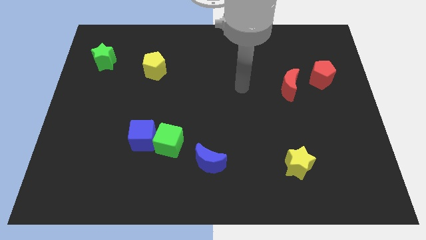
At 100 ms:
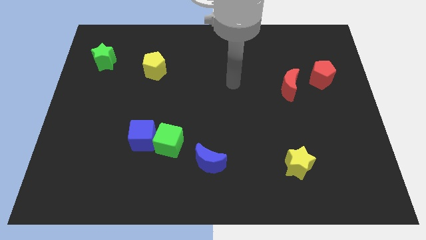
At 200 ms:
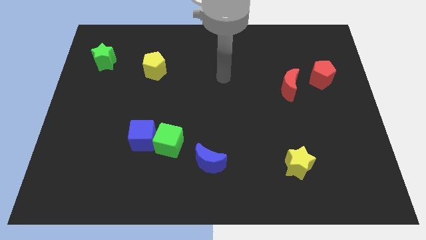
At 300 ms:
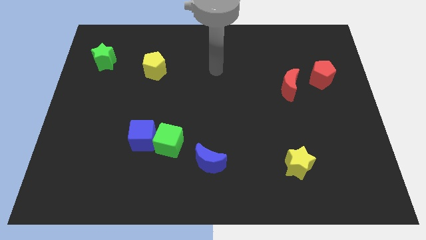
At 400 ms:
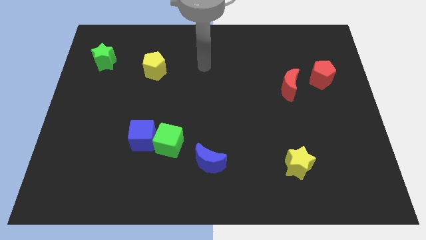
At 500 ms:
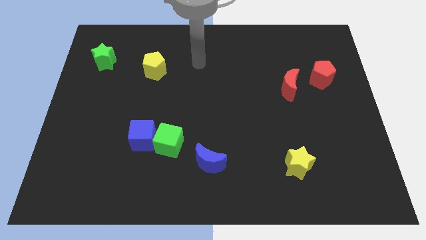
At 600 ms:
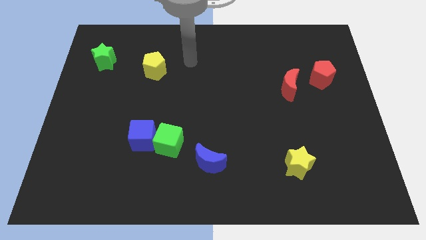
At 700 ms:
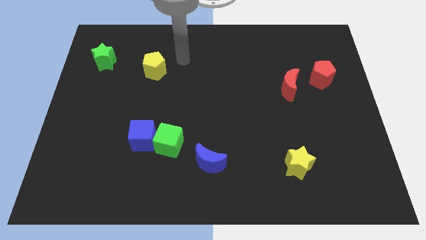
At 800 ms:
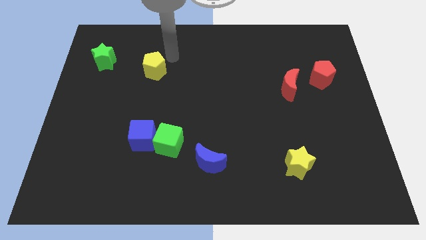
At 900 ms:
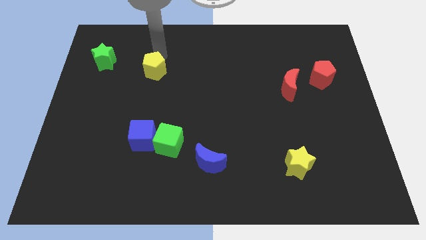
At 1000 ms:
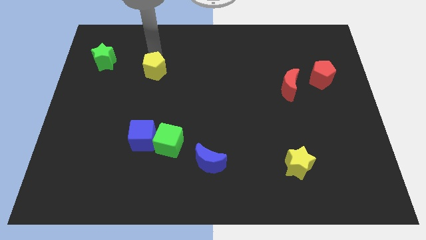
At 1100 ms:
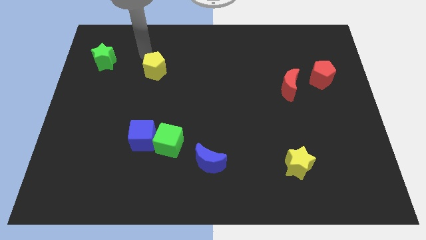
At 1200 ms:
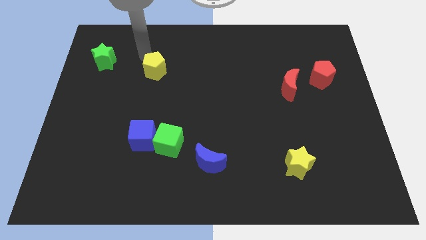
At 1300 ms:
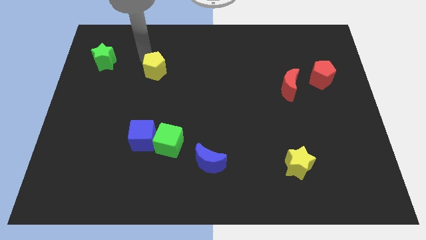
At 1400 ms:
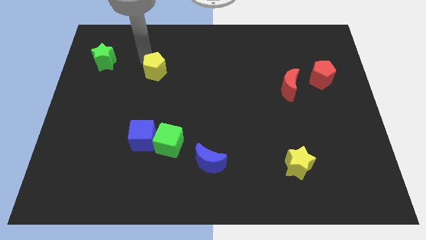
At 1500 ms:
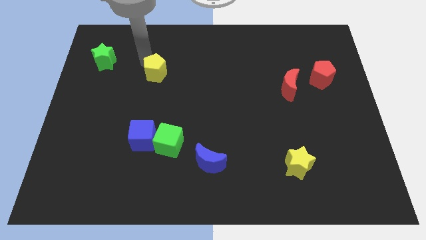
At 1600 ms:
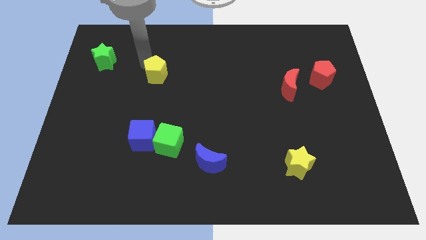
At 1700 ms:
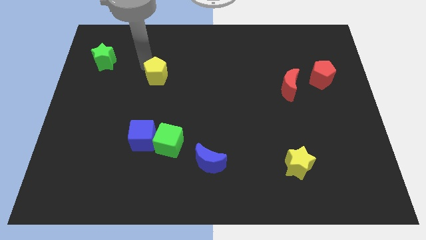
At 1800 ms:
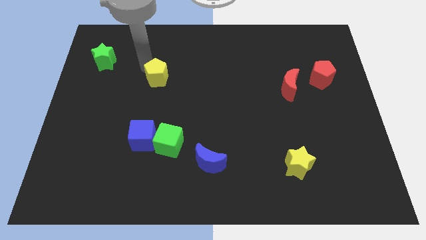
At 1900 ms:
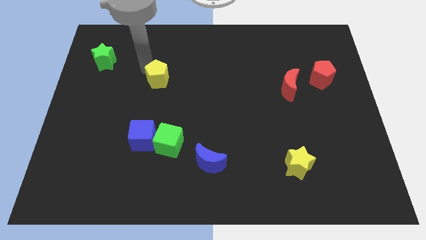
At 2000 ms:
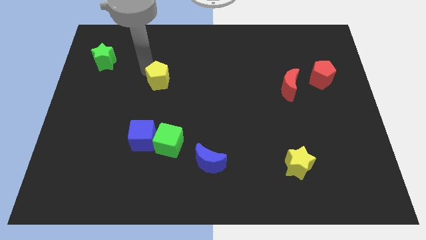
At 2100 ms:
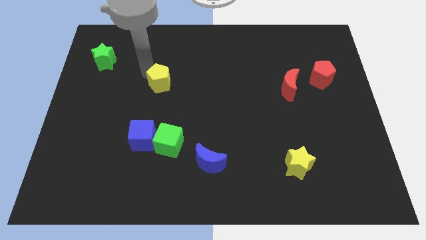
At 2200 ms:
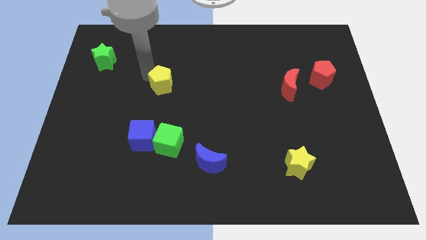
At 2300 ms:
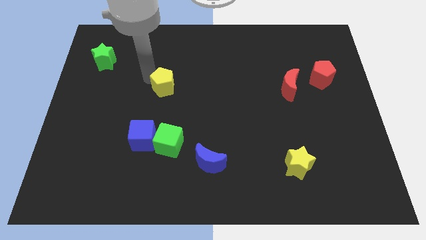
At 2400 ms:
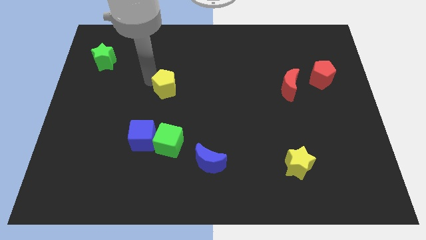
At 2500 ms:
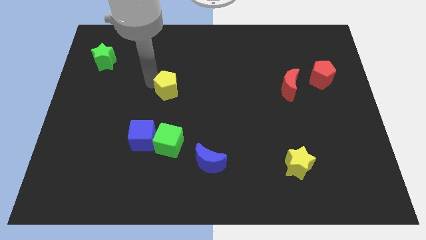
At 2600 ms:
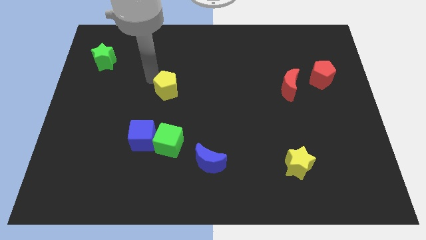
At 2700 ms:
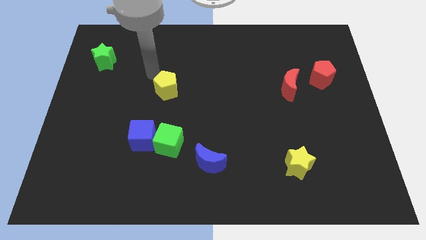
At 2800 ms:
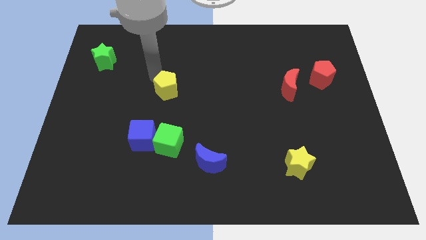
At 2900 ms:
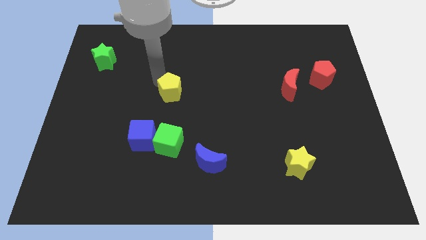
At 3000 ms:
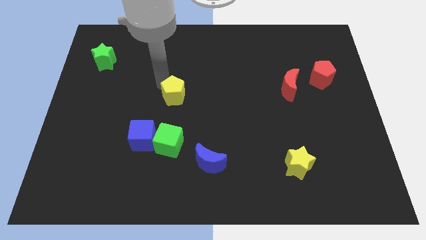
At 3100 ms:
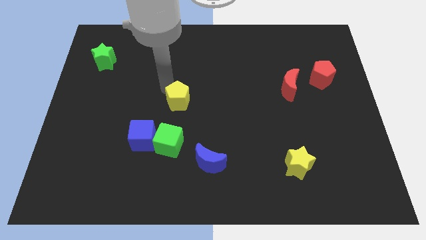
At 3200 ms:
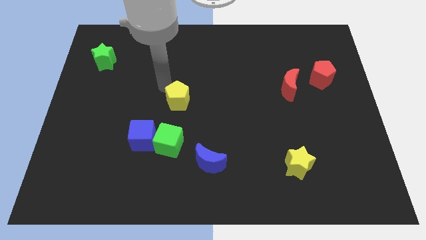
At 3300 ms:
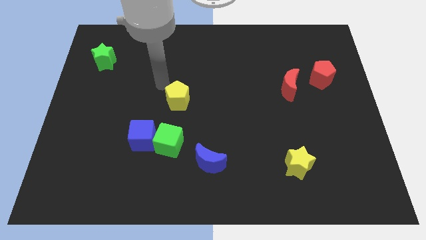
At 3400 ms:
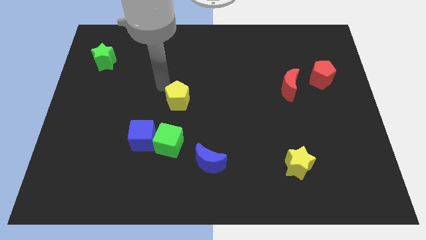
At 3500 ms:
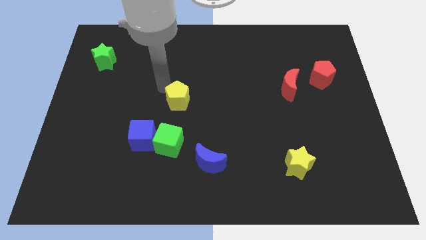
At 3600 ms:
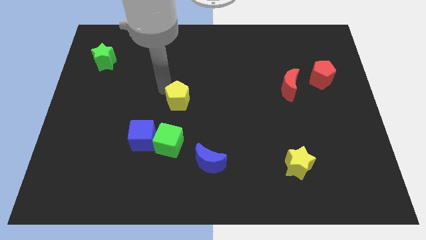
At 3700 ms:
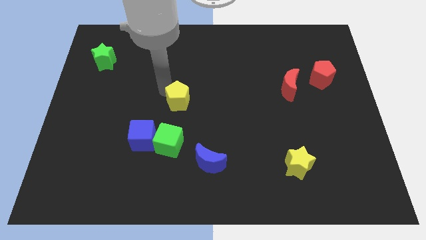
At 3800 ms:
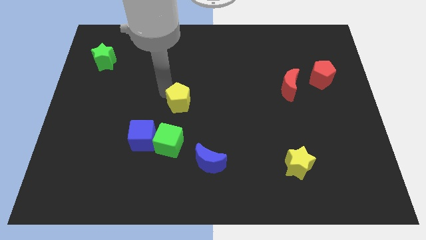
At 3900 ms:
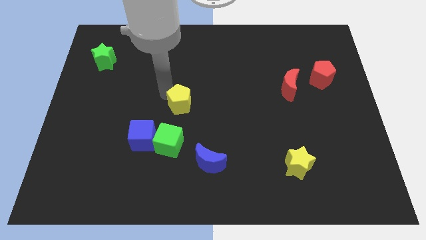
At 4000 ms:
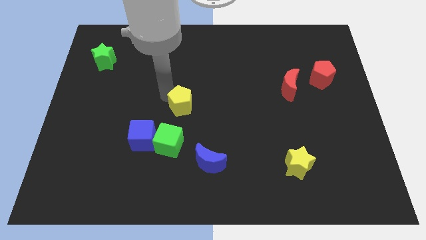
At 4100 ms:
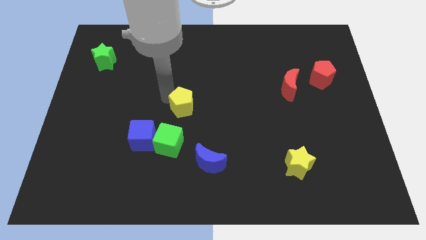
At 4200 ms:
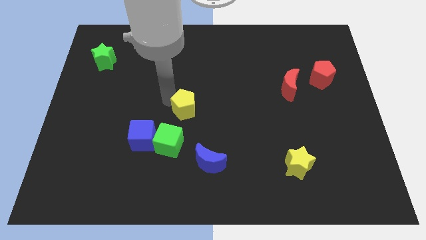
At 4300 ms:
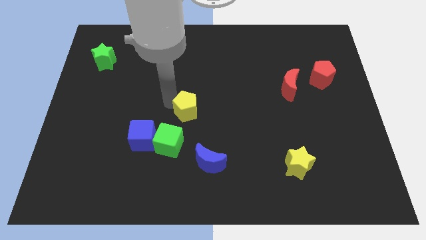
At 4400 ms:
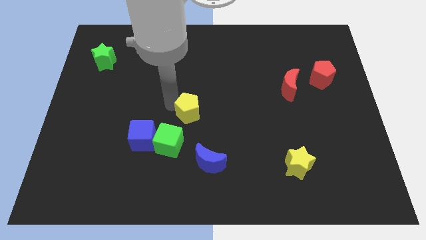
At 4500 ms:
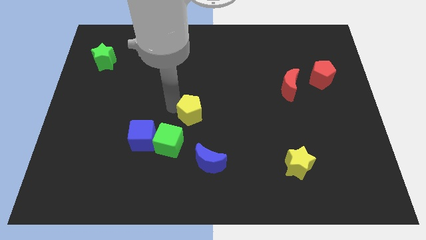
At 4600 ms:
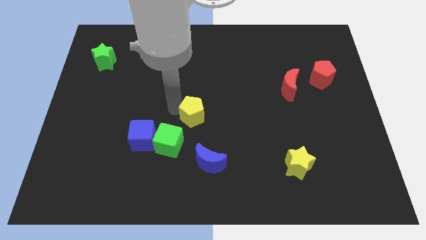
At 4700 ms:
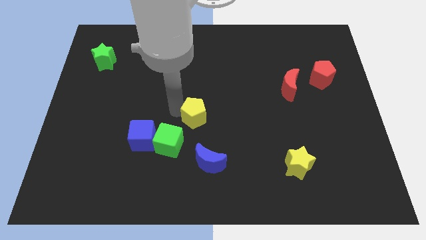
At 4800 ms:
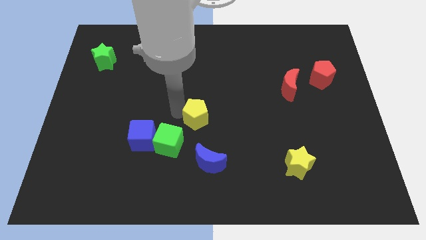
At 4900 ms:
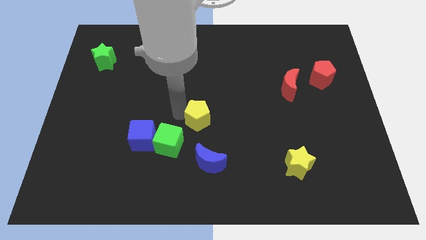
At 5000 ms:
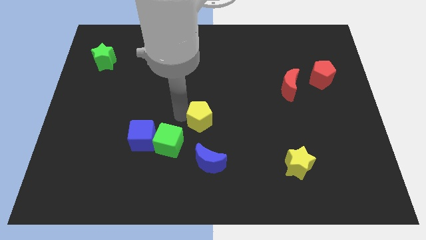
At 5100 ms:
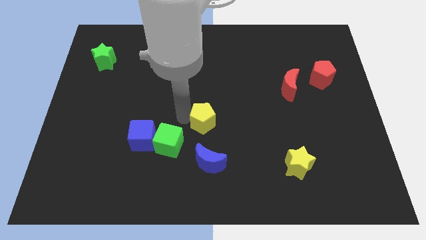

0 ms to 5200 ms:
slide the yellow pentagon downwards and then to the right

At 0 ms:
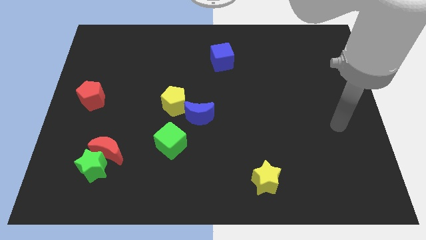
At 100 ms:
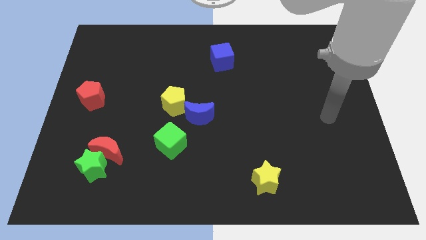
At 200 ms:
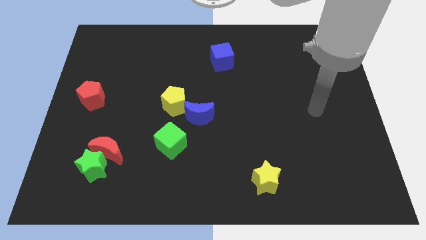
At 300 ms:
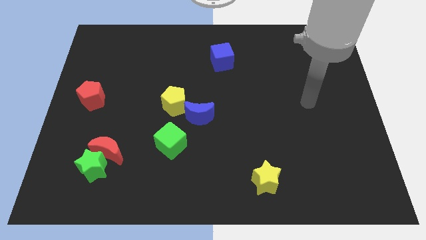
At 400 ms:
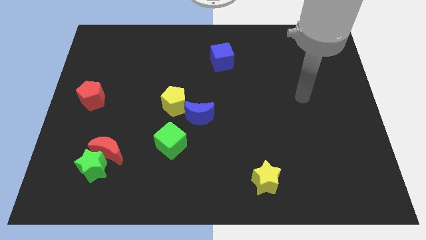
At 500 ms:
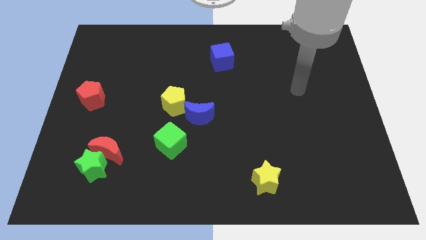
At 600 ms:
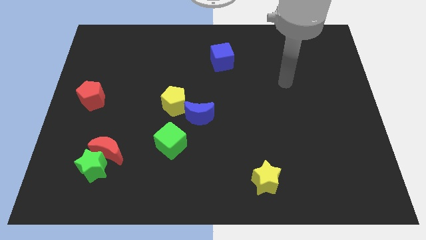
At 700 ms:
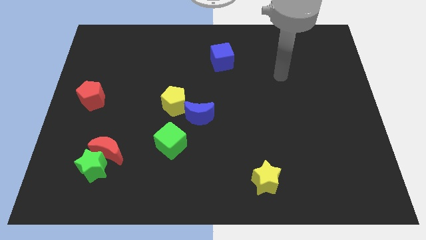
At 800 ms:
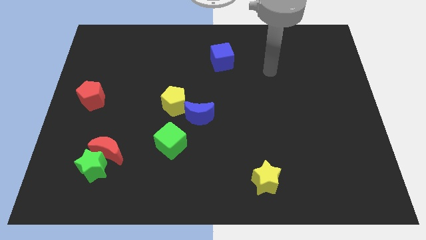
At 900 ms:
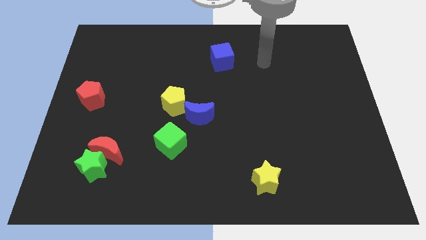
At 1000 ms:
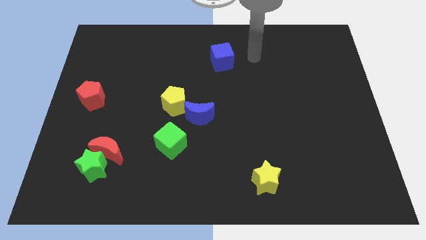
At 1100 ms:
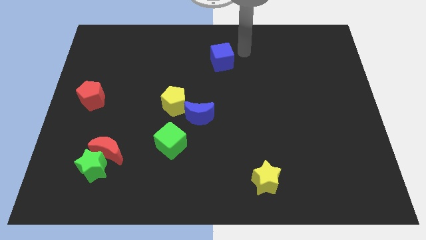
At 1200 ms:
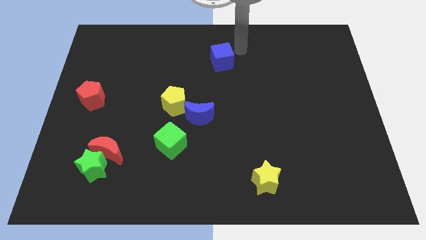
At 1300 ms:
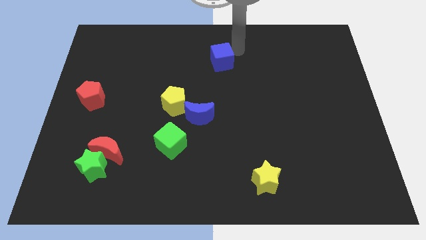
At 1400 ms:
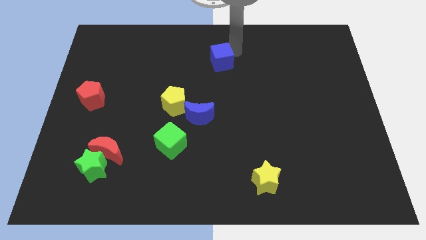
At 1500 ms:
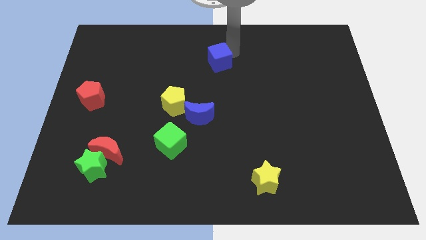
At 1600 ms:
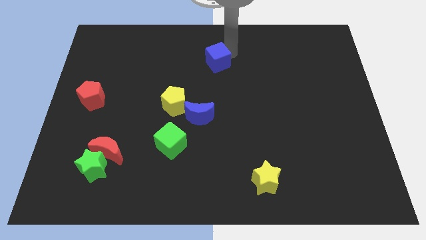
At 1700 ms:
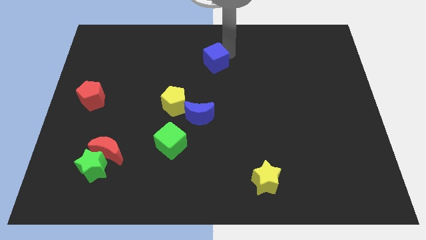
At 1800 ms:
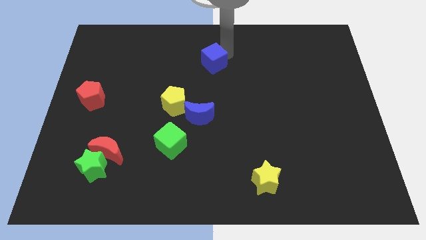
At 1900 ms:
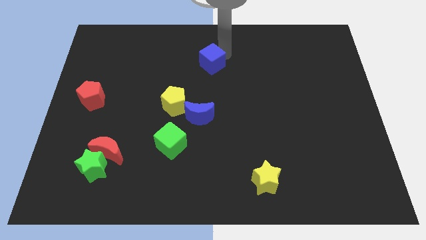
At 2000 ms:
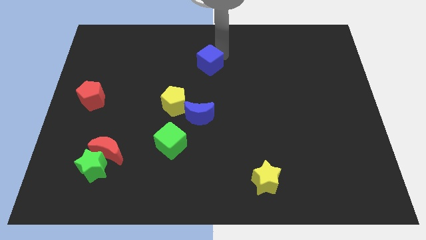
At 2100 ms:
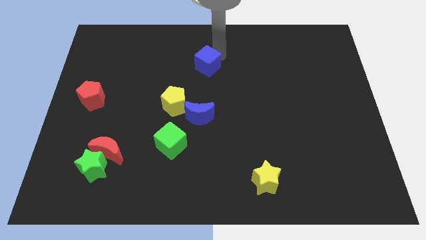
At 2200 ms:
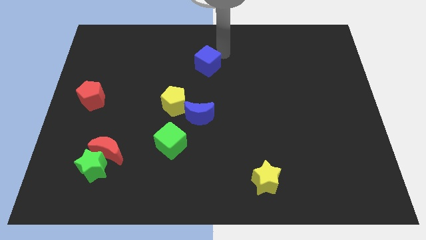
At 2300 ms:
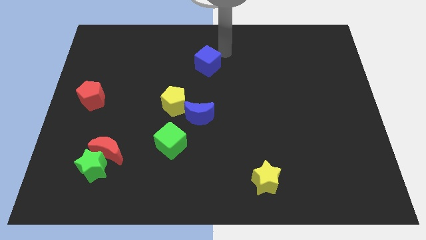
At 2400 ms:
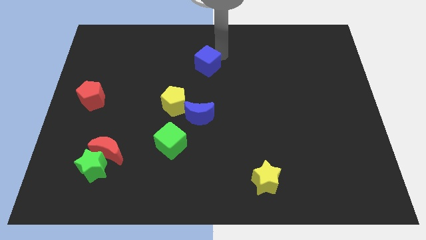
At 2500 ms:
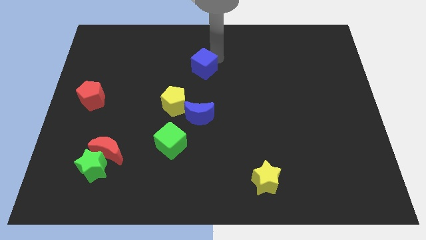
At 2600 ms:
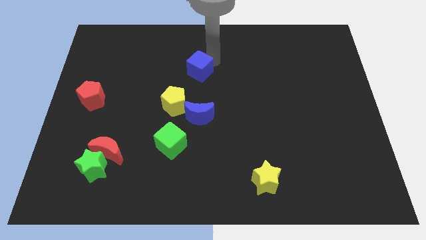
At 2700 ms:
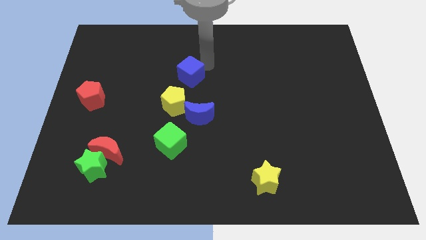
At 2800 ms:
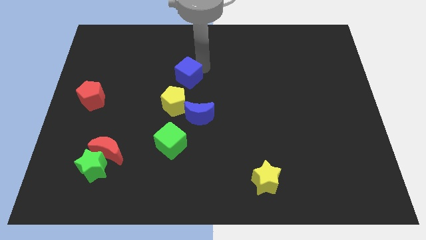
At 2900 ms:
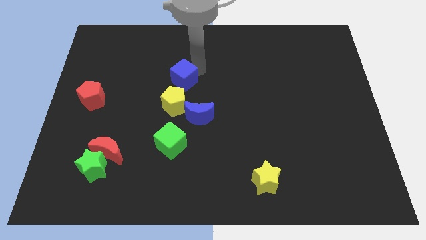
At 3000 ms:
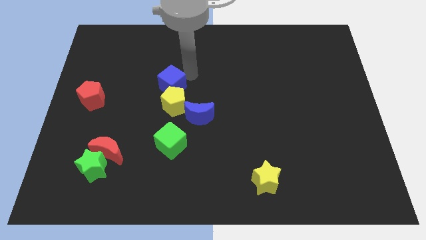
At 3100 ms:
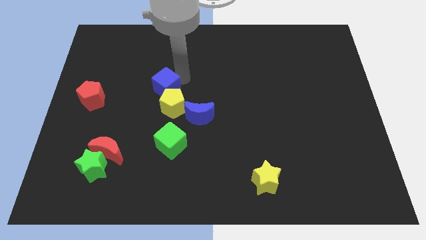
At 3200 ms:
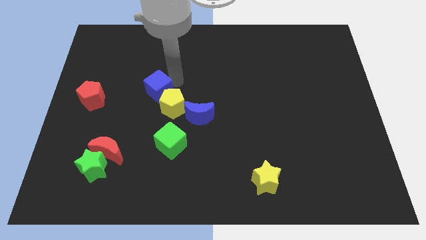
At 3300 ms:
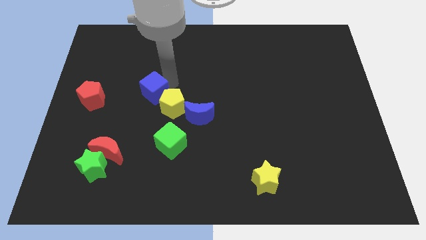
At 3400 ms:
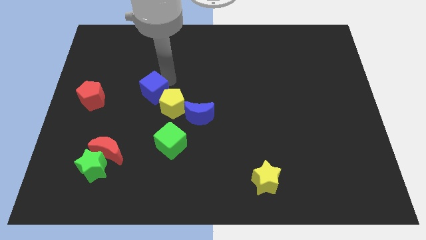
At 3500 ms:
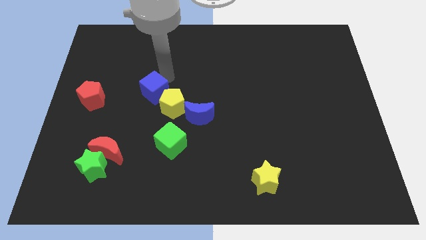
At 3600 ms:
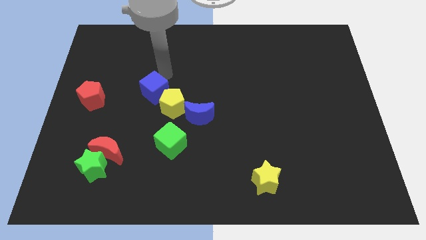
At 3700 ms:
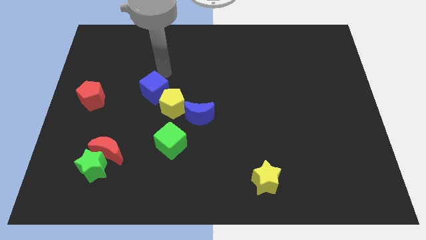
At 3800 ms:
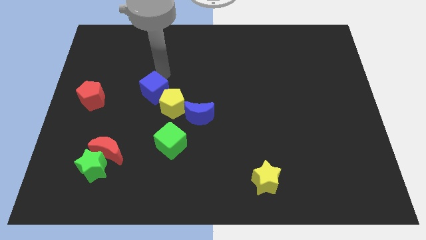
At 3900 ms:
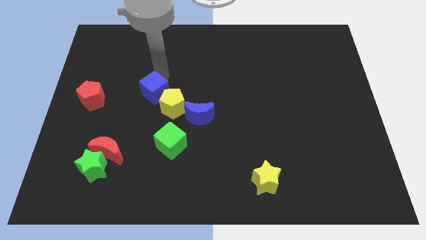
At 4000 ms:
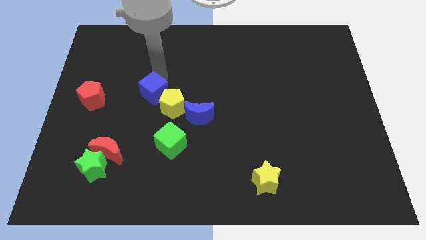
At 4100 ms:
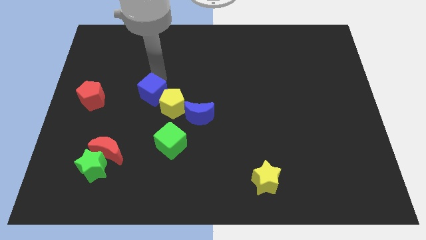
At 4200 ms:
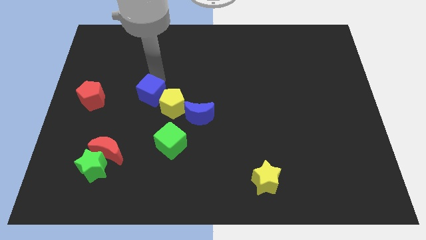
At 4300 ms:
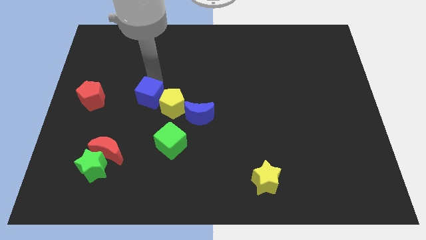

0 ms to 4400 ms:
slide the blue cube diagonally down and to the left
